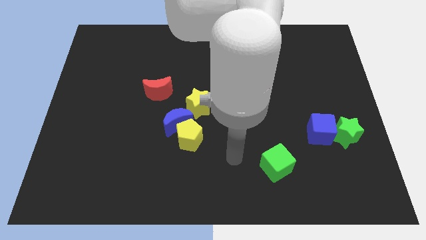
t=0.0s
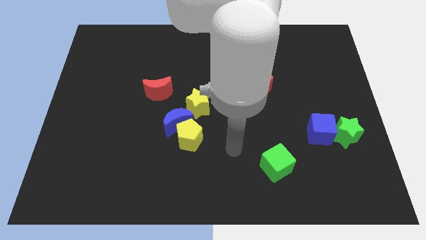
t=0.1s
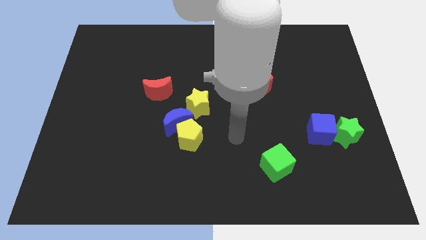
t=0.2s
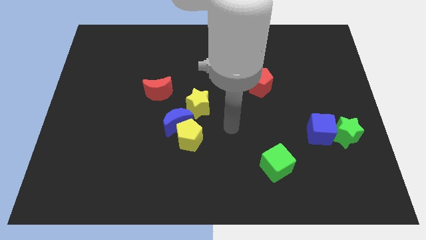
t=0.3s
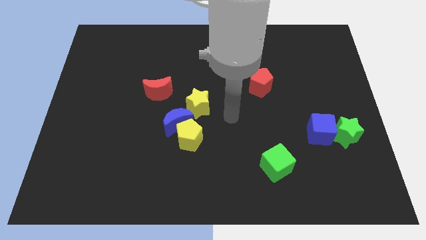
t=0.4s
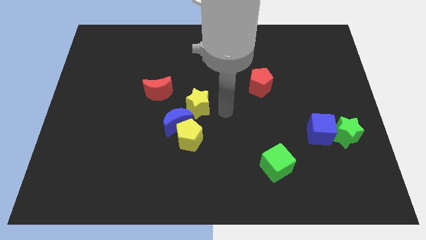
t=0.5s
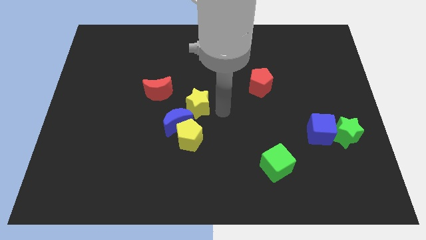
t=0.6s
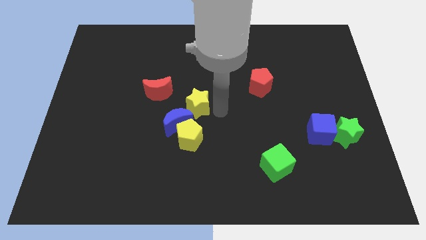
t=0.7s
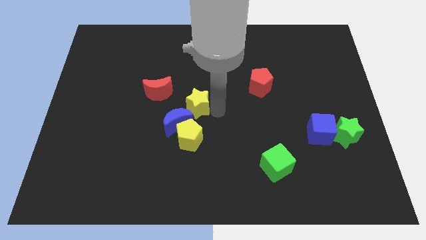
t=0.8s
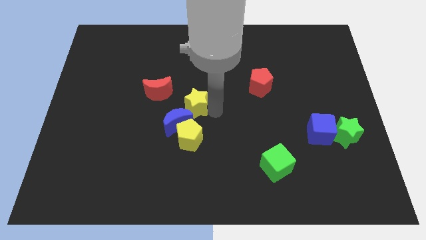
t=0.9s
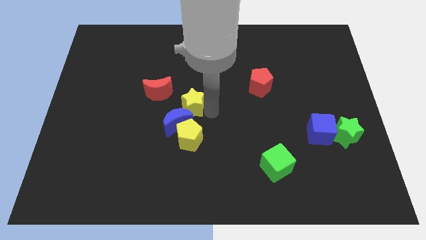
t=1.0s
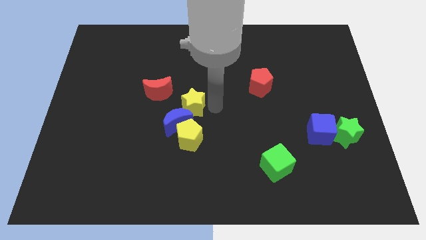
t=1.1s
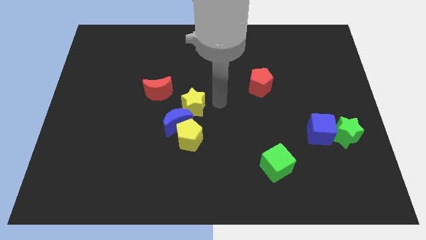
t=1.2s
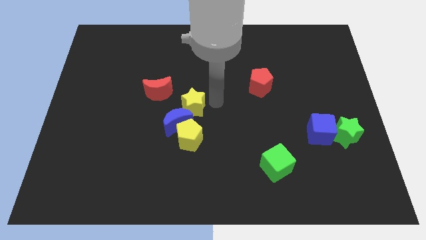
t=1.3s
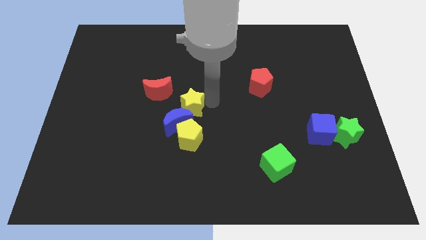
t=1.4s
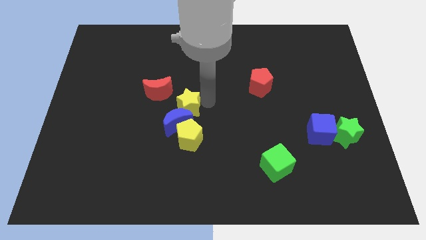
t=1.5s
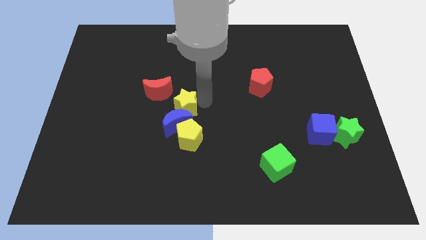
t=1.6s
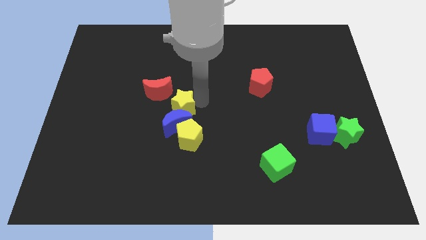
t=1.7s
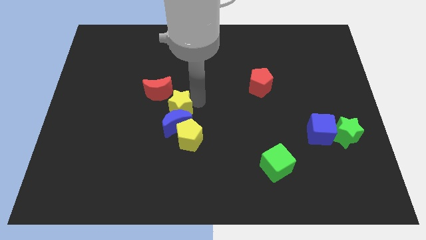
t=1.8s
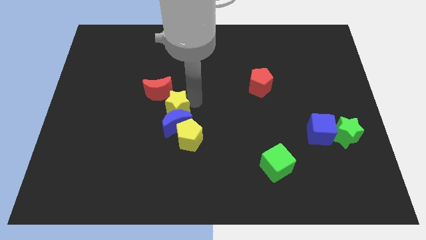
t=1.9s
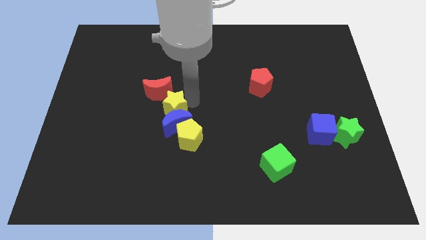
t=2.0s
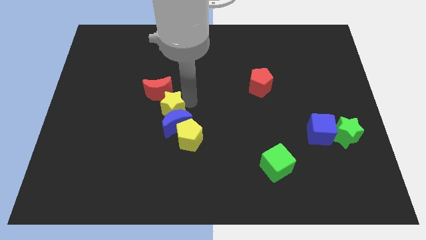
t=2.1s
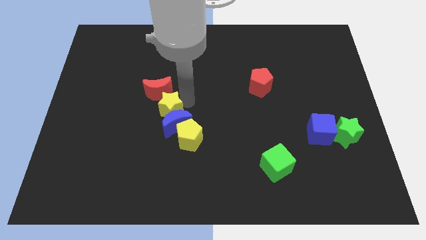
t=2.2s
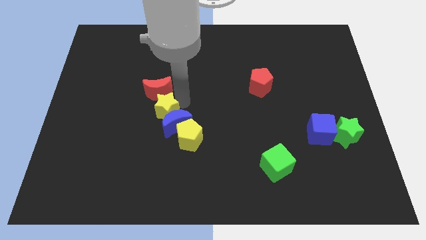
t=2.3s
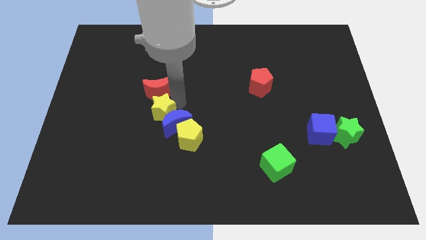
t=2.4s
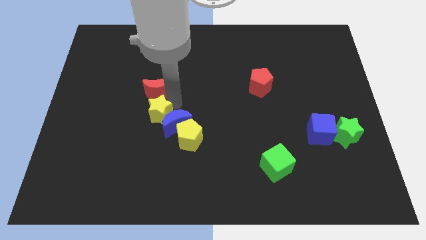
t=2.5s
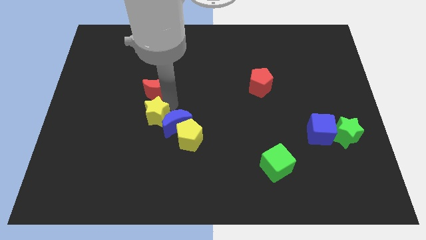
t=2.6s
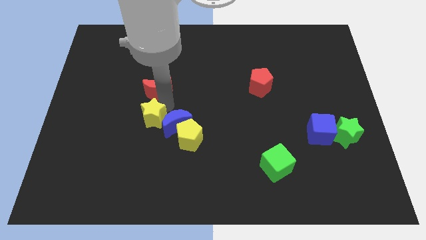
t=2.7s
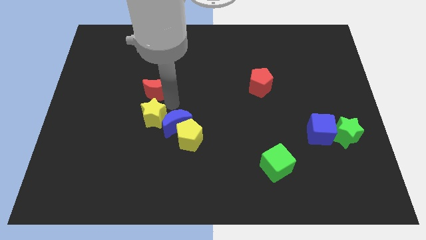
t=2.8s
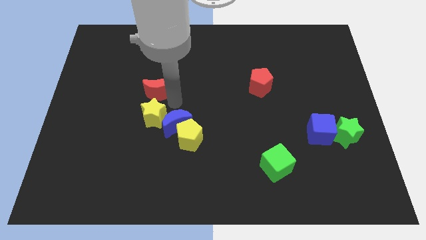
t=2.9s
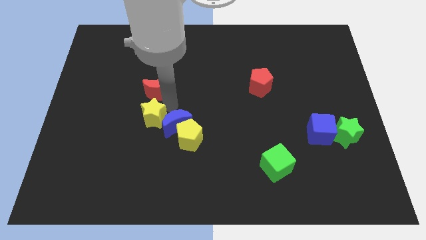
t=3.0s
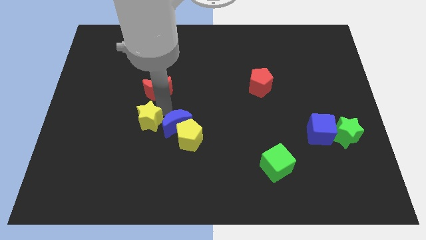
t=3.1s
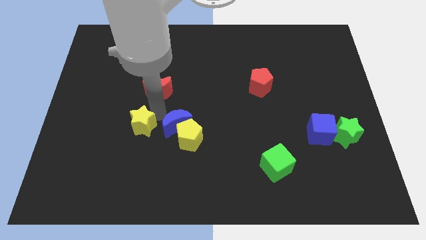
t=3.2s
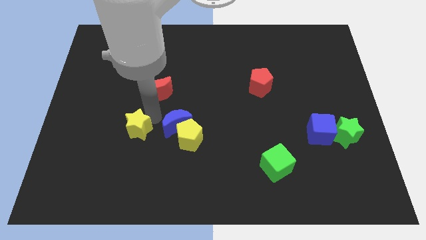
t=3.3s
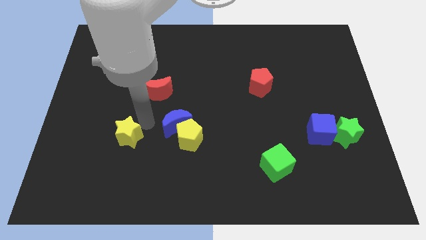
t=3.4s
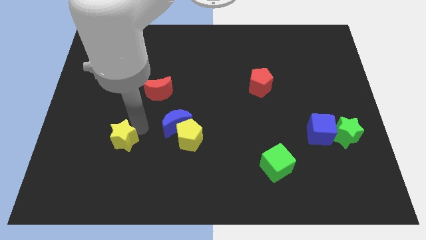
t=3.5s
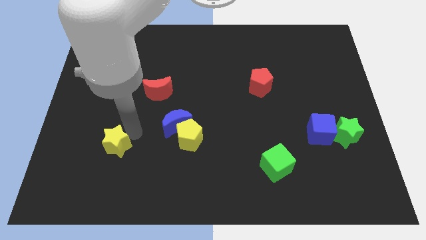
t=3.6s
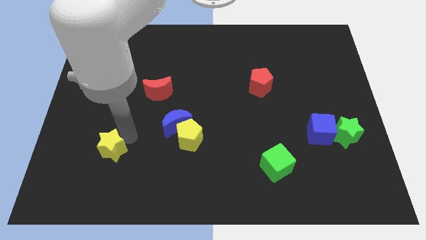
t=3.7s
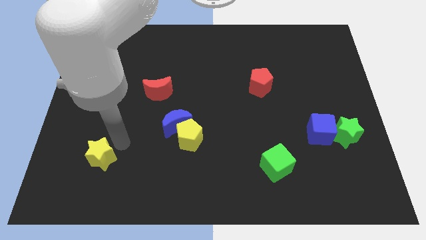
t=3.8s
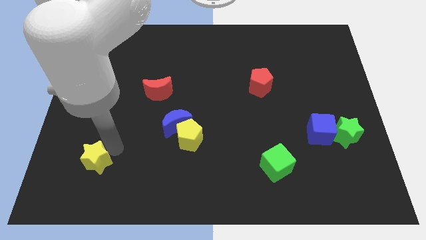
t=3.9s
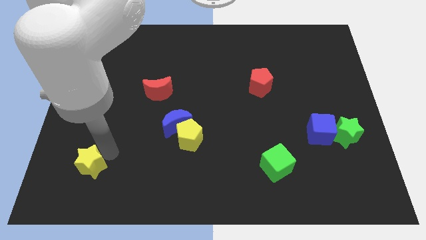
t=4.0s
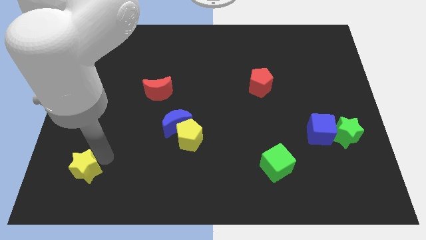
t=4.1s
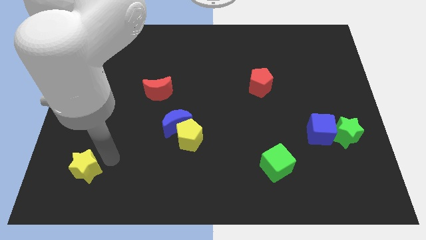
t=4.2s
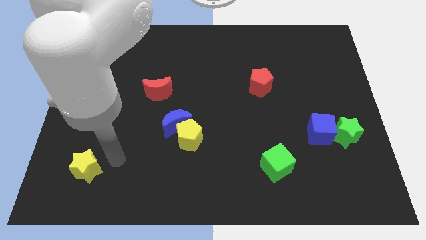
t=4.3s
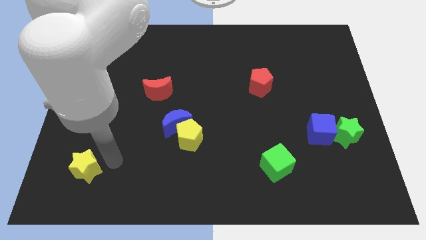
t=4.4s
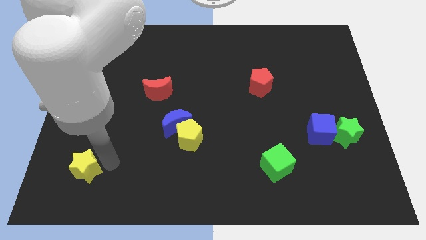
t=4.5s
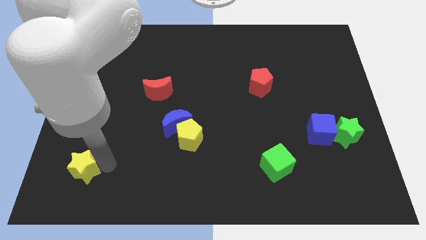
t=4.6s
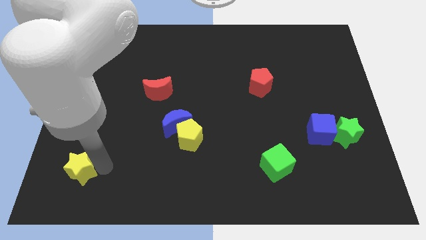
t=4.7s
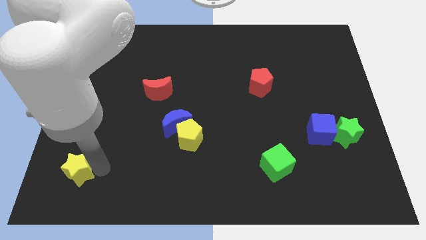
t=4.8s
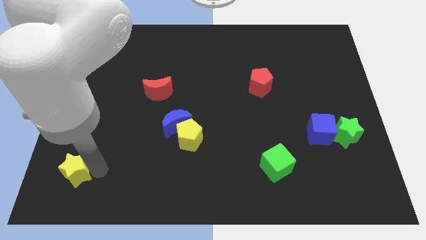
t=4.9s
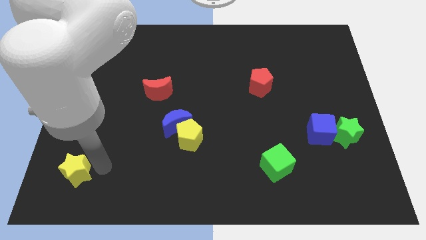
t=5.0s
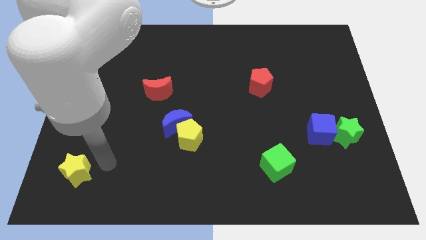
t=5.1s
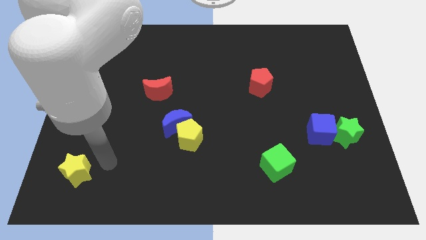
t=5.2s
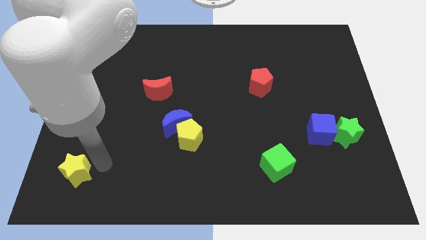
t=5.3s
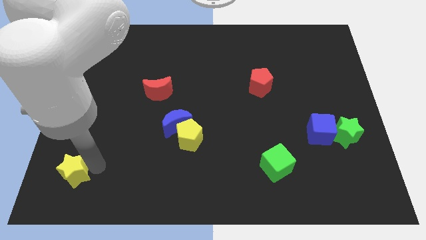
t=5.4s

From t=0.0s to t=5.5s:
move the yellow star to the bottom left of the board

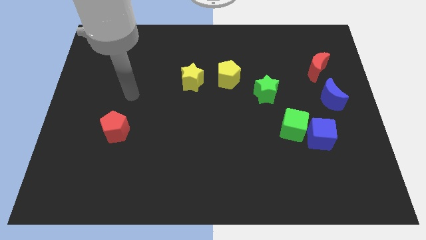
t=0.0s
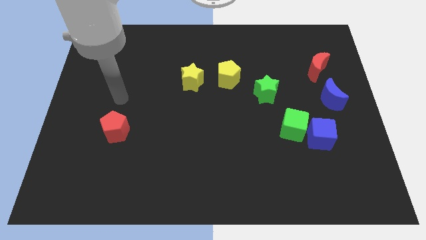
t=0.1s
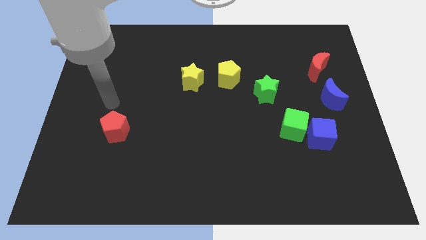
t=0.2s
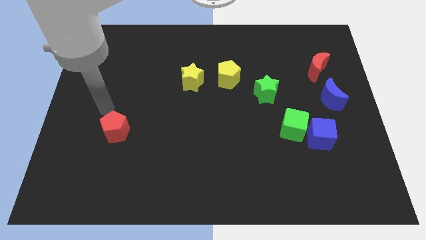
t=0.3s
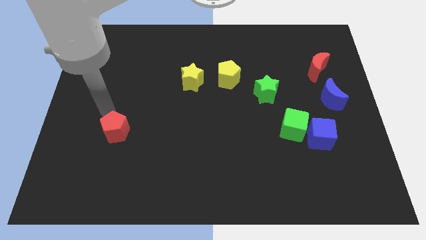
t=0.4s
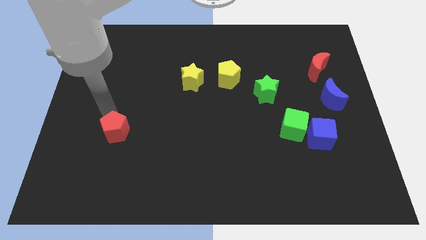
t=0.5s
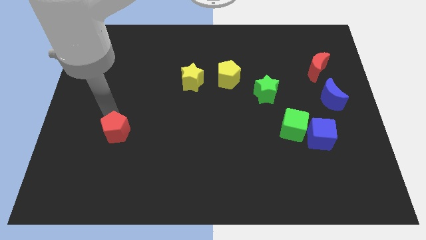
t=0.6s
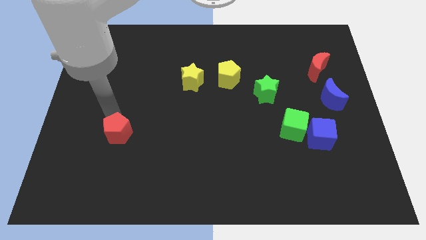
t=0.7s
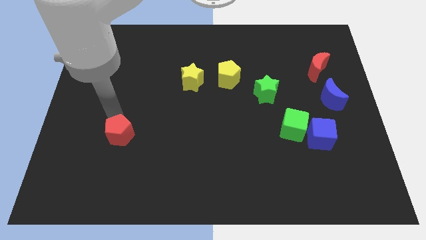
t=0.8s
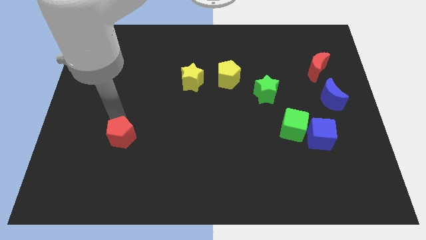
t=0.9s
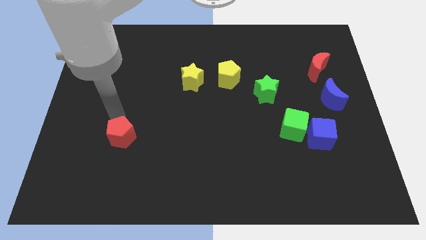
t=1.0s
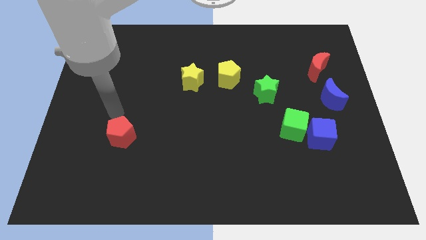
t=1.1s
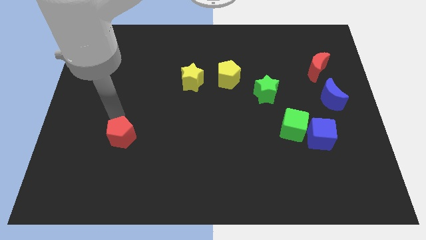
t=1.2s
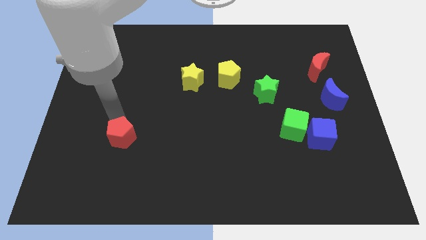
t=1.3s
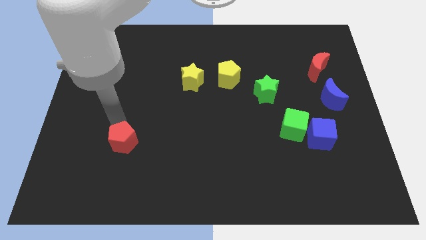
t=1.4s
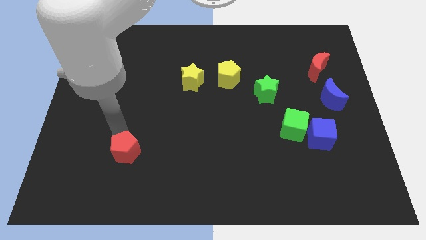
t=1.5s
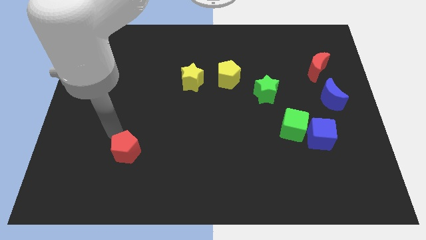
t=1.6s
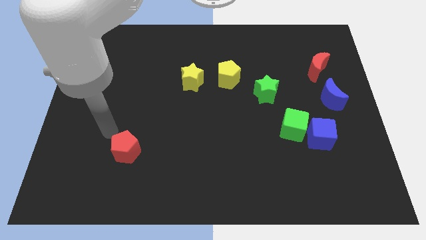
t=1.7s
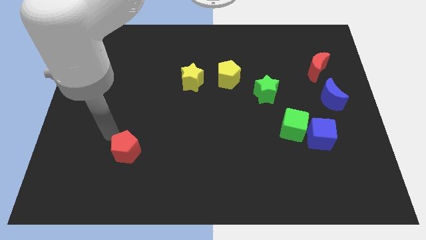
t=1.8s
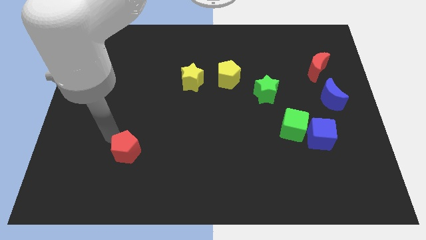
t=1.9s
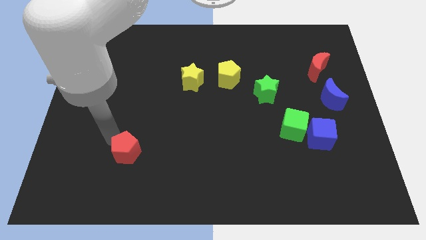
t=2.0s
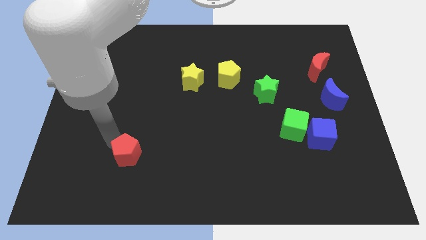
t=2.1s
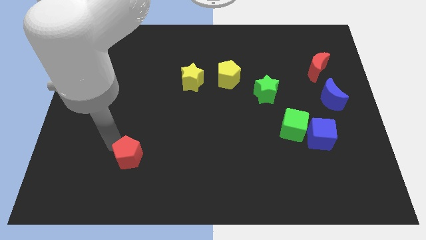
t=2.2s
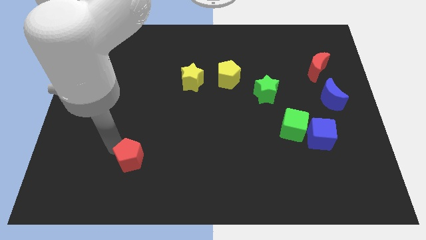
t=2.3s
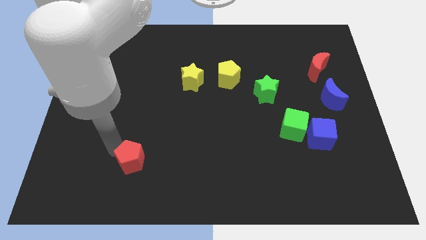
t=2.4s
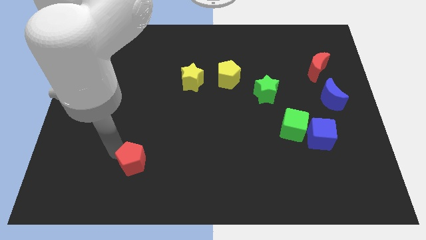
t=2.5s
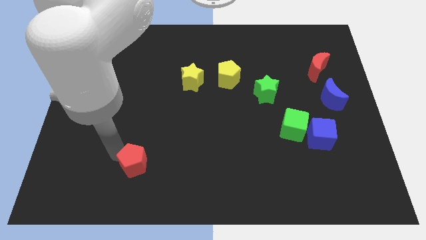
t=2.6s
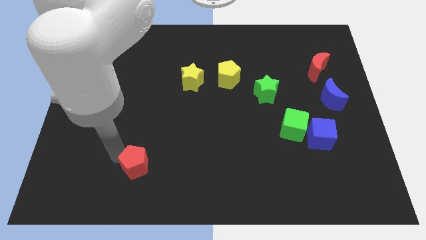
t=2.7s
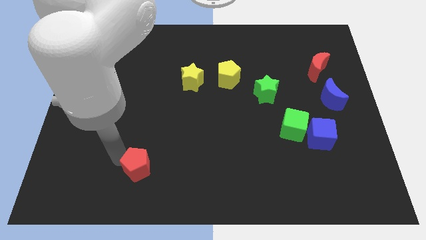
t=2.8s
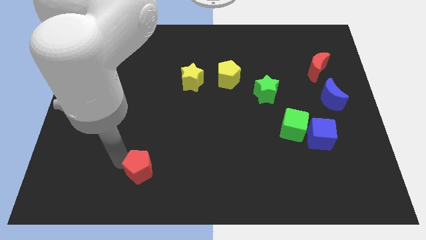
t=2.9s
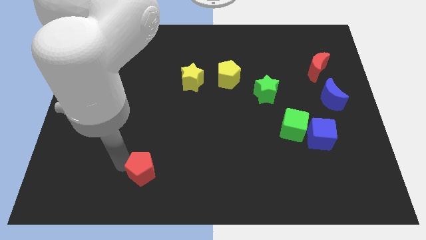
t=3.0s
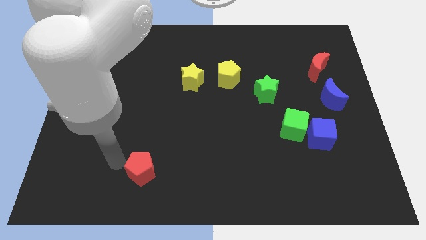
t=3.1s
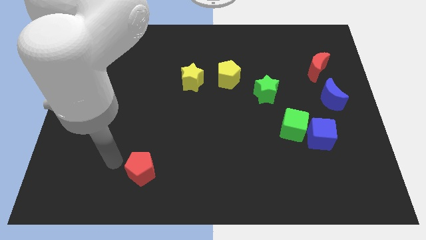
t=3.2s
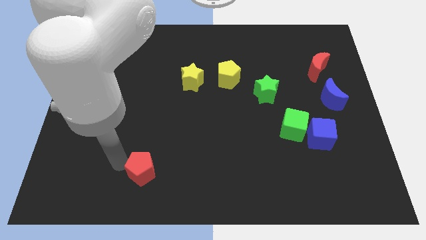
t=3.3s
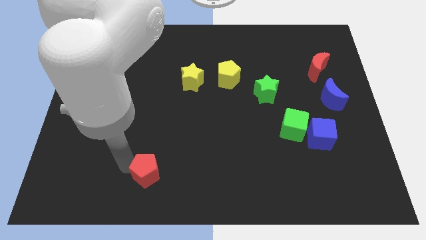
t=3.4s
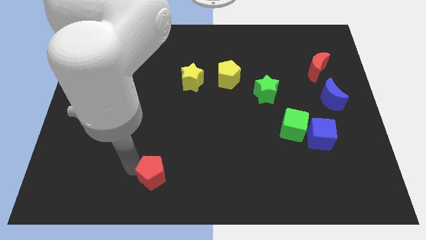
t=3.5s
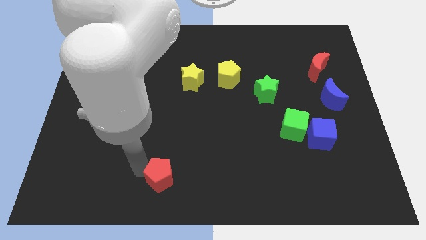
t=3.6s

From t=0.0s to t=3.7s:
put the red pentagon to the bottom side
